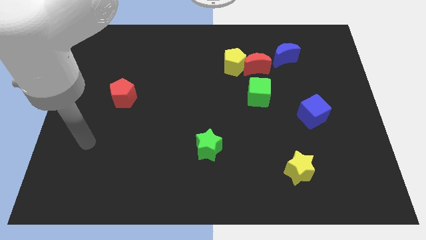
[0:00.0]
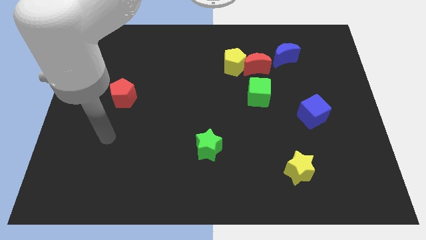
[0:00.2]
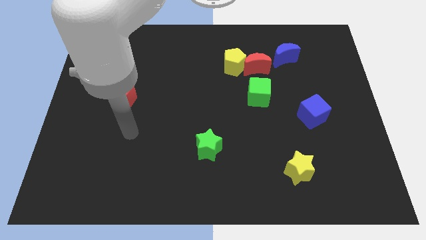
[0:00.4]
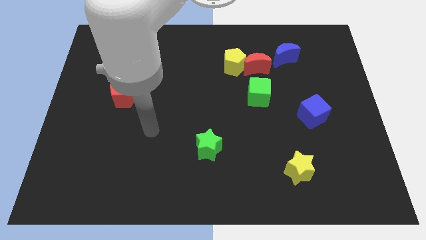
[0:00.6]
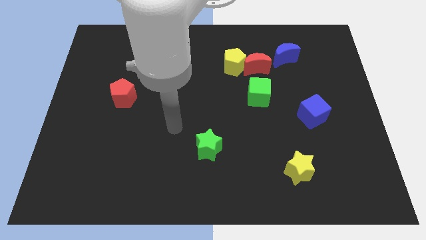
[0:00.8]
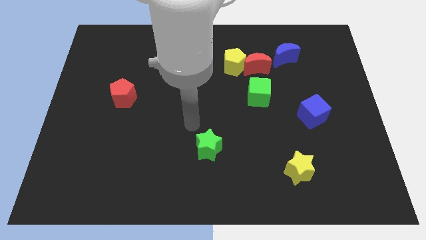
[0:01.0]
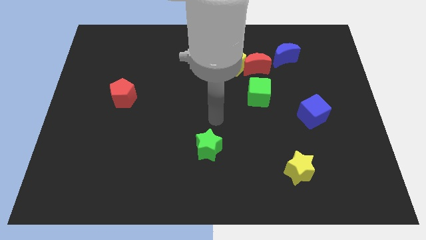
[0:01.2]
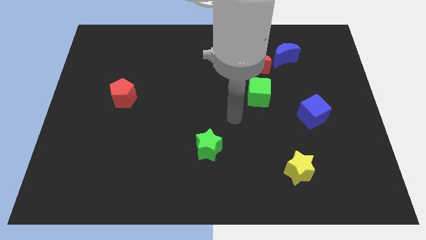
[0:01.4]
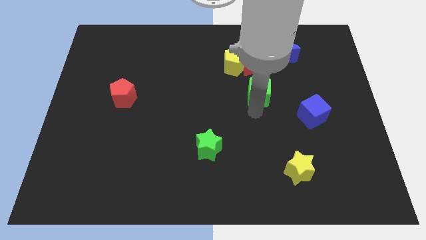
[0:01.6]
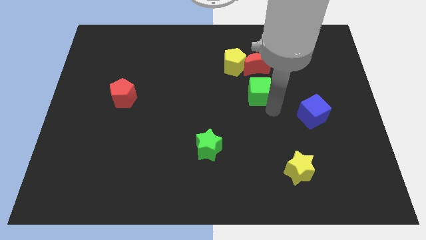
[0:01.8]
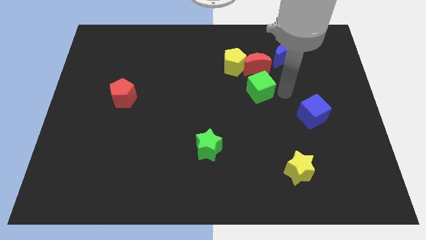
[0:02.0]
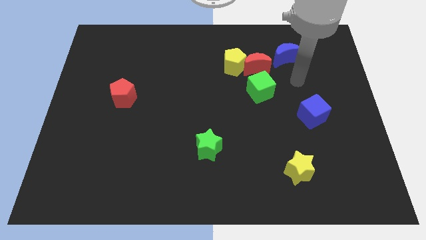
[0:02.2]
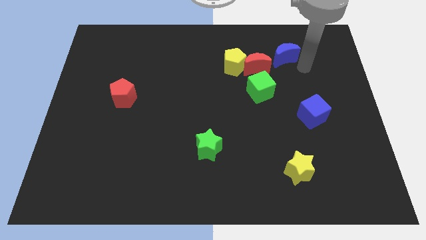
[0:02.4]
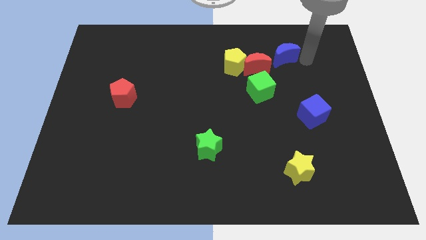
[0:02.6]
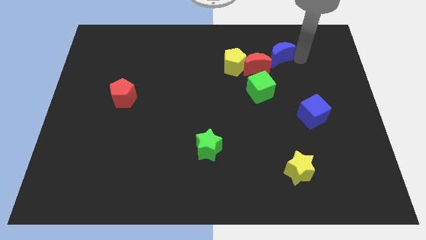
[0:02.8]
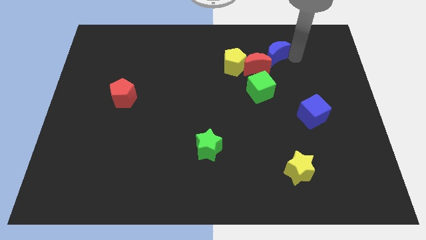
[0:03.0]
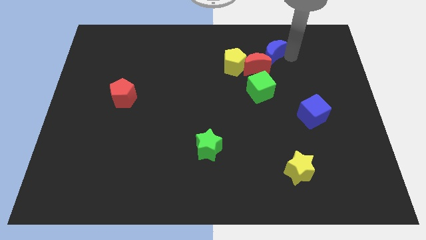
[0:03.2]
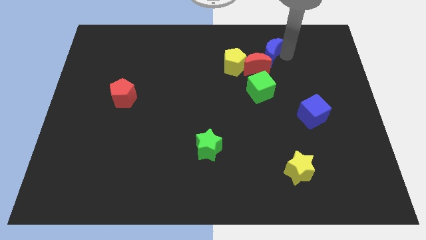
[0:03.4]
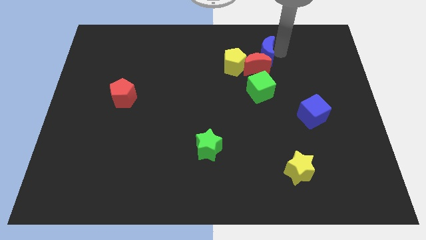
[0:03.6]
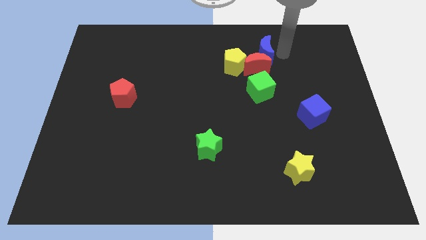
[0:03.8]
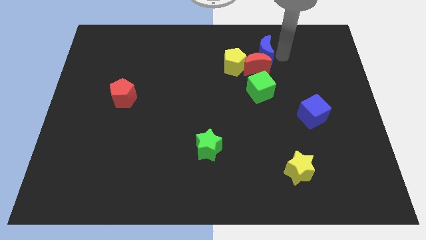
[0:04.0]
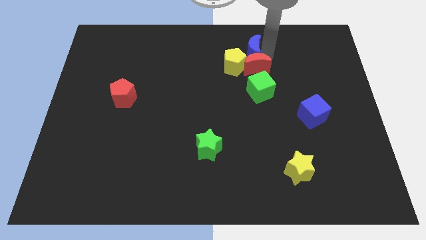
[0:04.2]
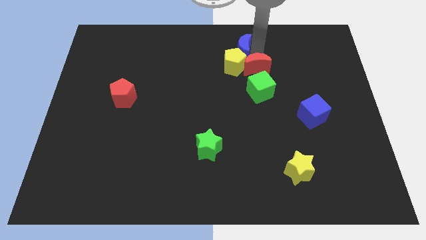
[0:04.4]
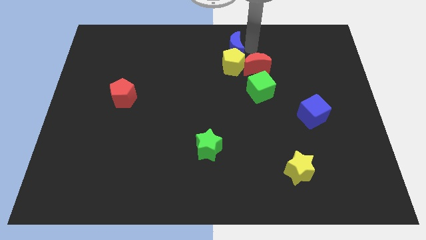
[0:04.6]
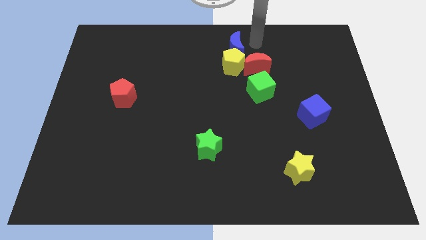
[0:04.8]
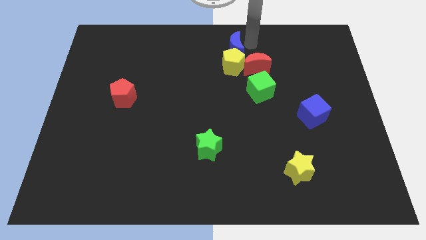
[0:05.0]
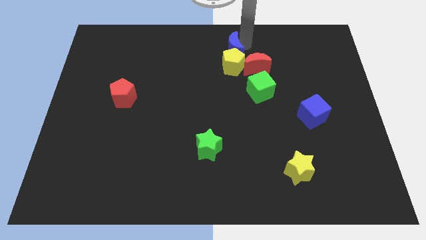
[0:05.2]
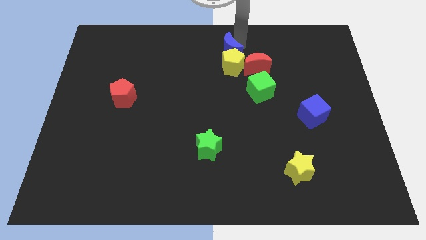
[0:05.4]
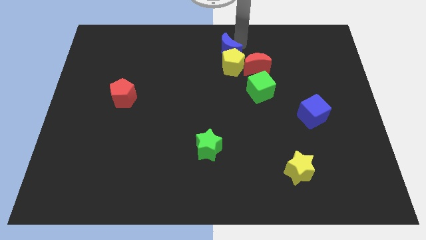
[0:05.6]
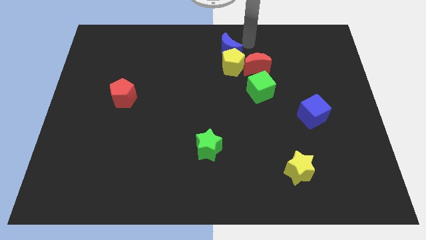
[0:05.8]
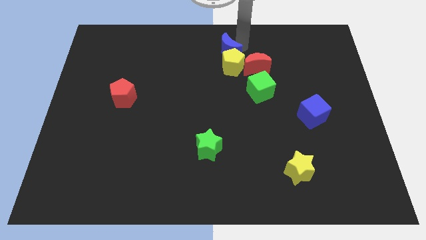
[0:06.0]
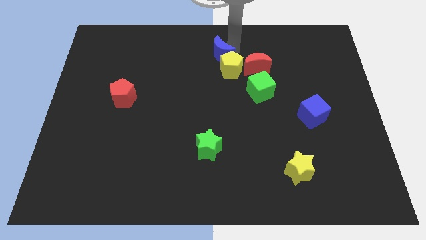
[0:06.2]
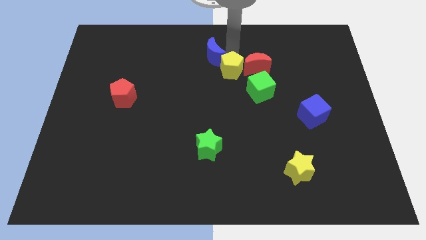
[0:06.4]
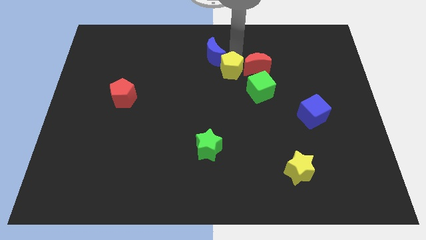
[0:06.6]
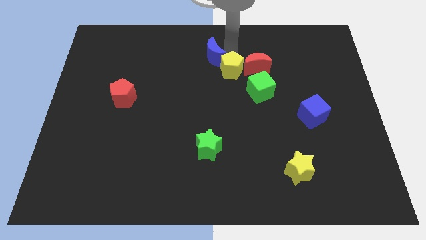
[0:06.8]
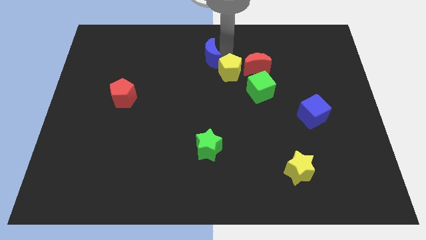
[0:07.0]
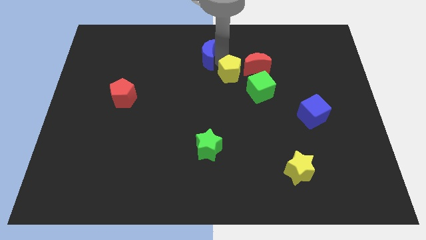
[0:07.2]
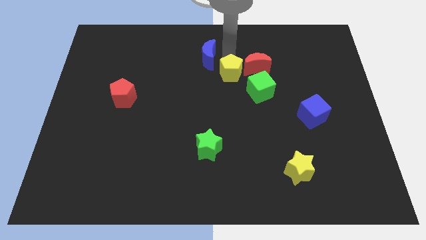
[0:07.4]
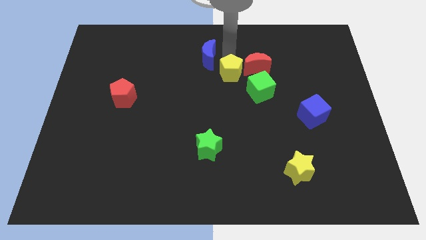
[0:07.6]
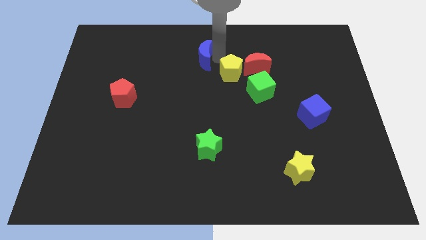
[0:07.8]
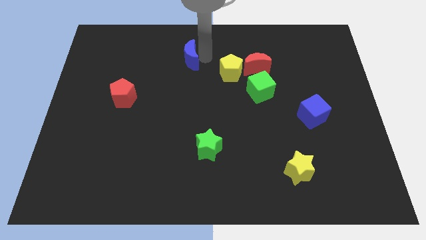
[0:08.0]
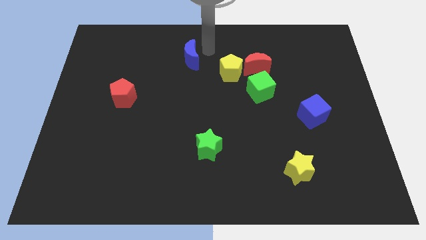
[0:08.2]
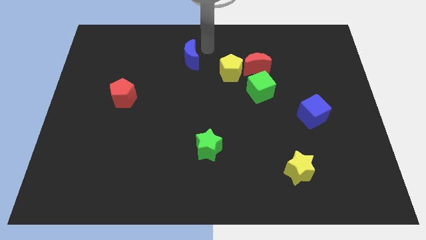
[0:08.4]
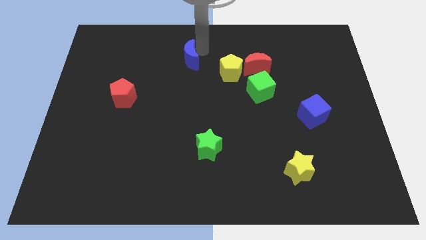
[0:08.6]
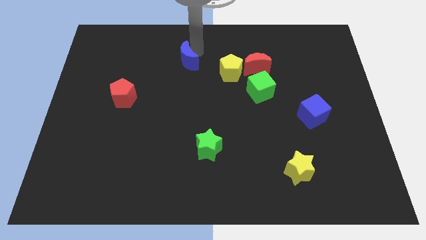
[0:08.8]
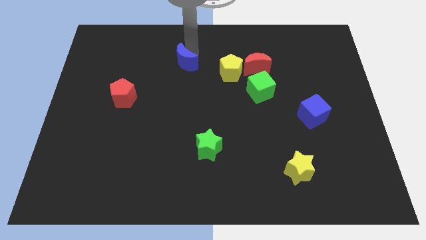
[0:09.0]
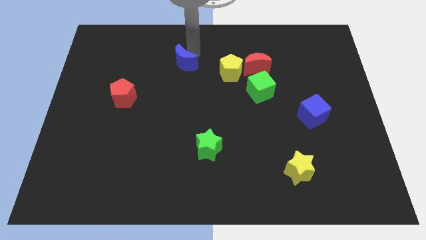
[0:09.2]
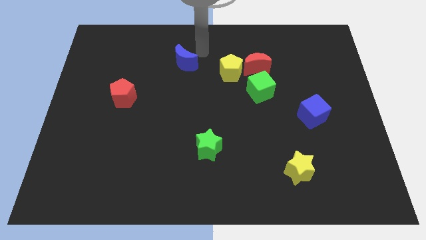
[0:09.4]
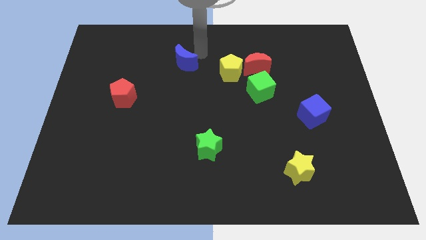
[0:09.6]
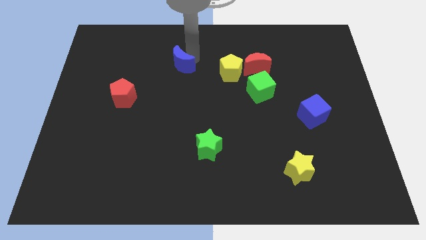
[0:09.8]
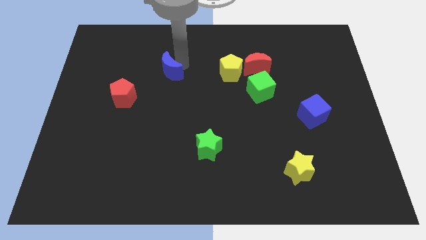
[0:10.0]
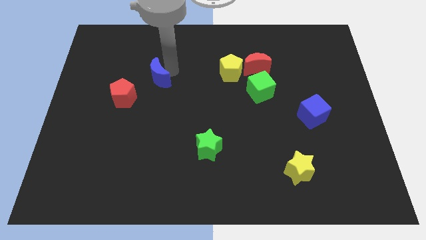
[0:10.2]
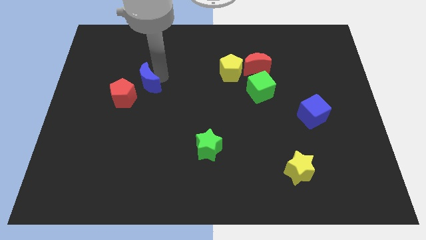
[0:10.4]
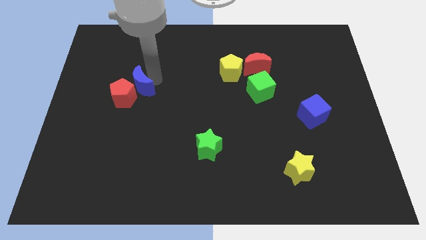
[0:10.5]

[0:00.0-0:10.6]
put the blue moon close to the red pentagon

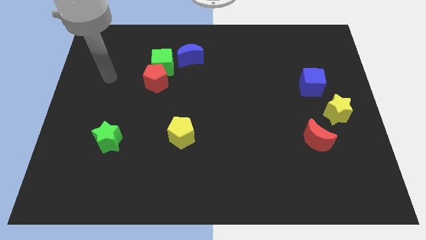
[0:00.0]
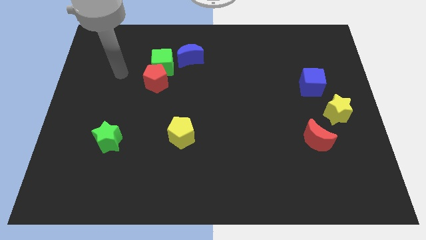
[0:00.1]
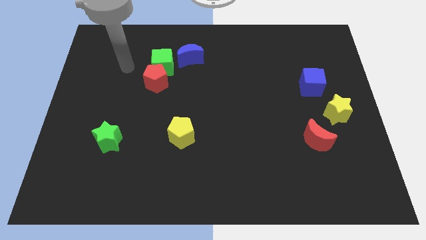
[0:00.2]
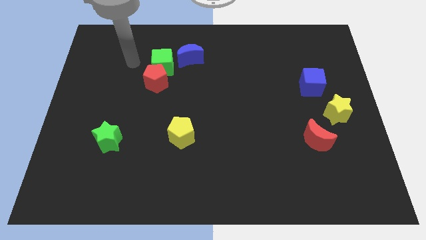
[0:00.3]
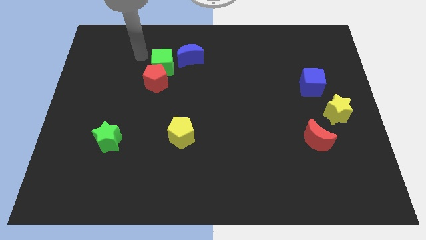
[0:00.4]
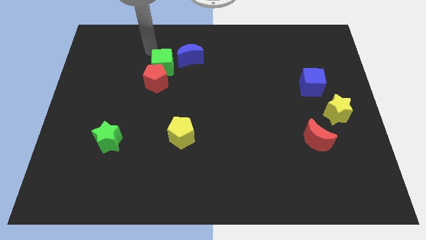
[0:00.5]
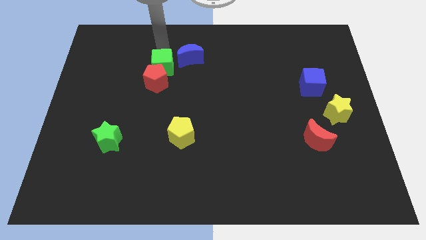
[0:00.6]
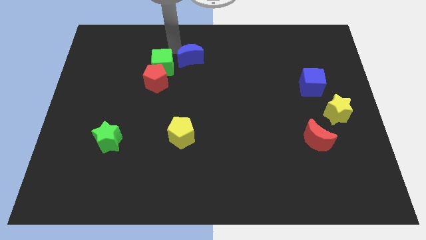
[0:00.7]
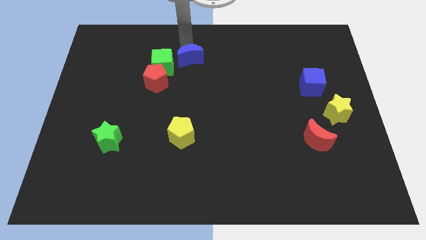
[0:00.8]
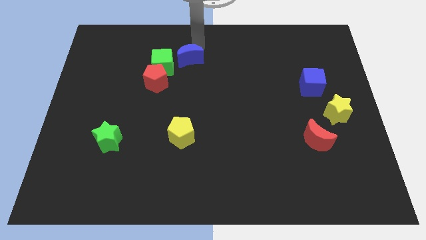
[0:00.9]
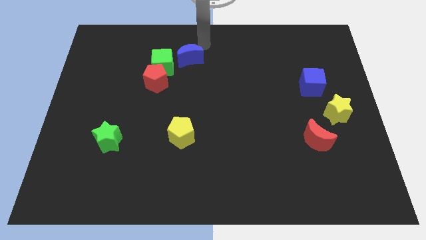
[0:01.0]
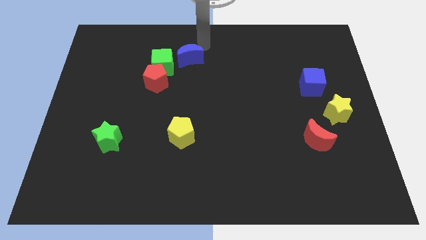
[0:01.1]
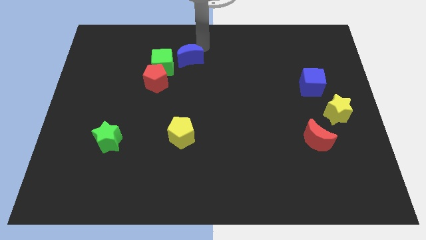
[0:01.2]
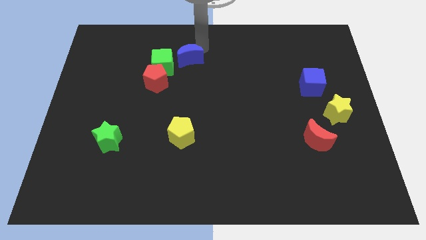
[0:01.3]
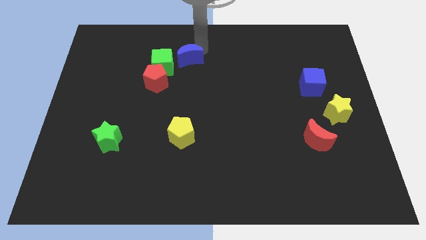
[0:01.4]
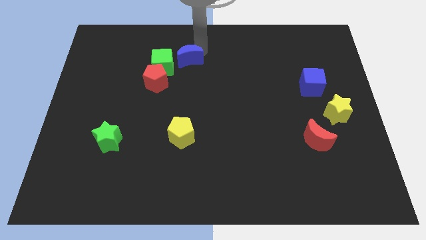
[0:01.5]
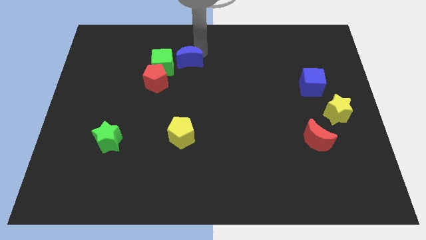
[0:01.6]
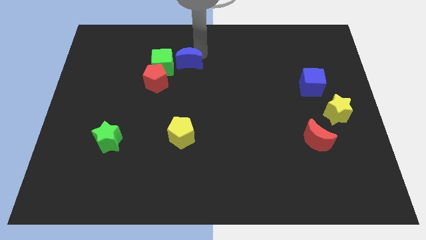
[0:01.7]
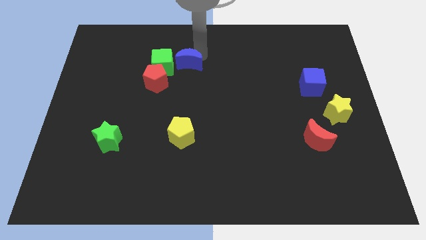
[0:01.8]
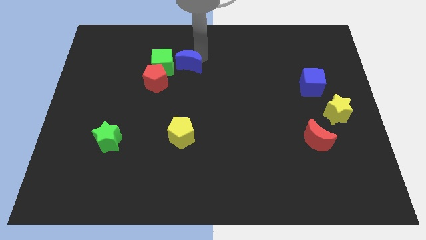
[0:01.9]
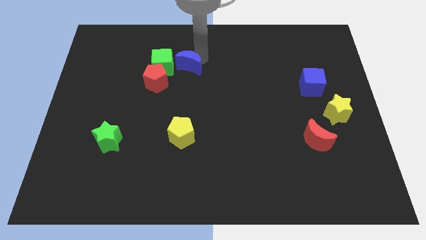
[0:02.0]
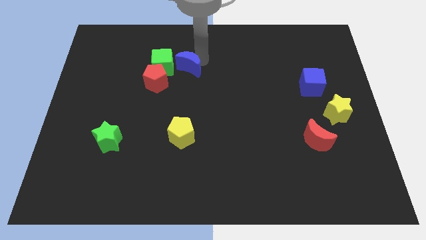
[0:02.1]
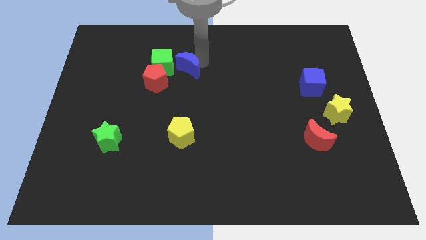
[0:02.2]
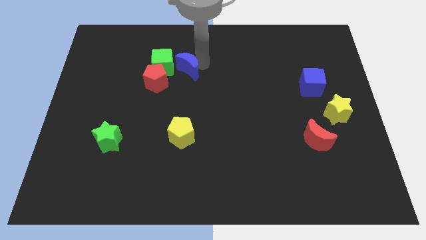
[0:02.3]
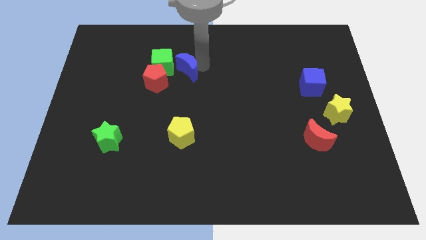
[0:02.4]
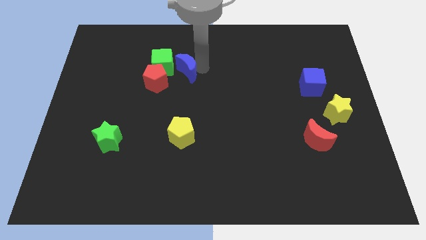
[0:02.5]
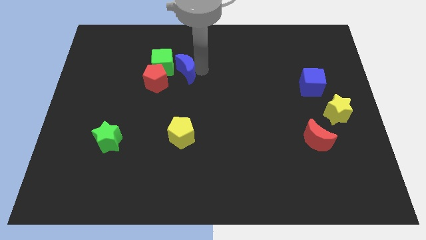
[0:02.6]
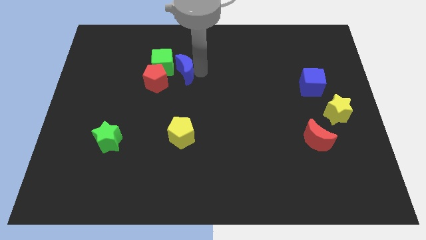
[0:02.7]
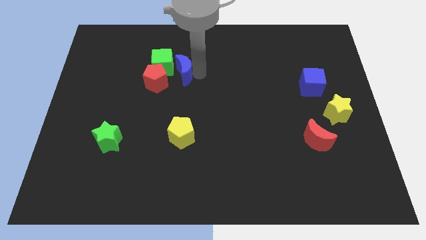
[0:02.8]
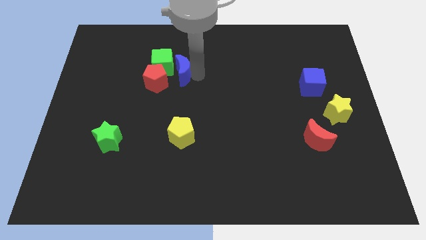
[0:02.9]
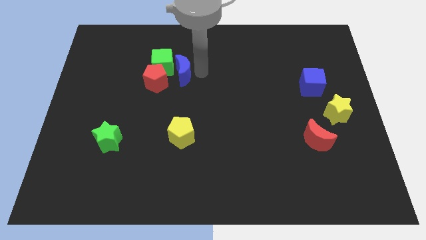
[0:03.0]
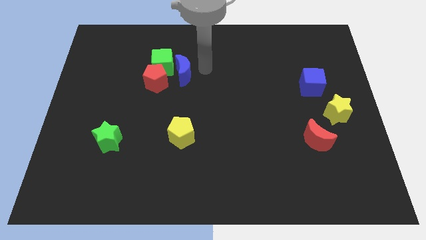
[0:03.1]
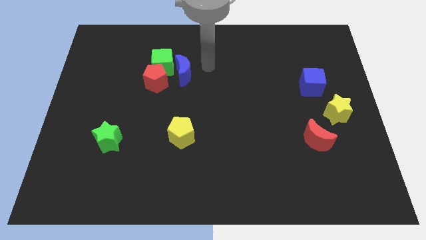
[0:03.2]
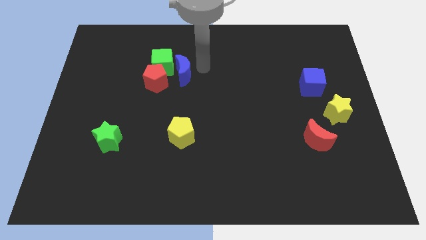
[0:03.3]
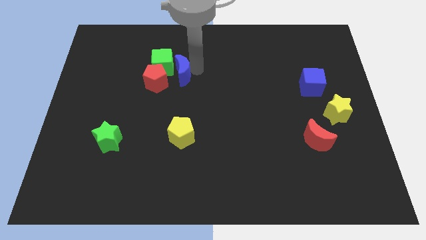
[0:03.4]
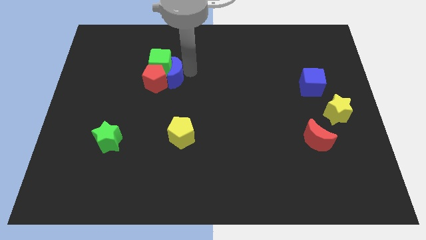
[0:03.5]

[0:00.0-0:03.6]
push the blue moon towards the red pentagon
